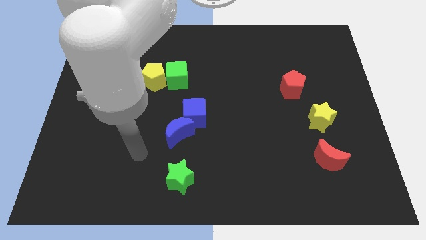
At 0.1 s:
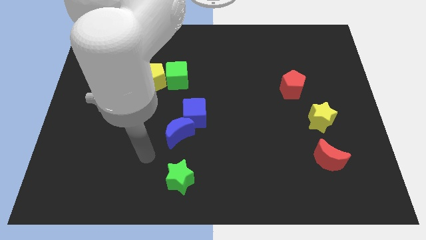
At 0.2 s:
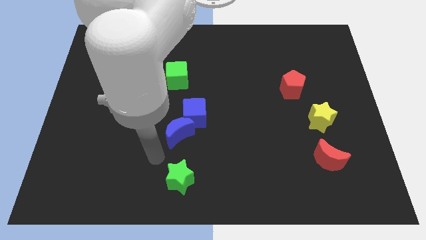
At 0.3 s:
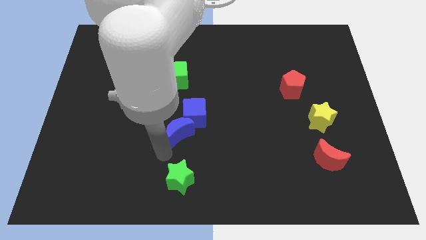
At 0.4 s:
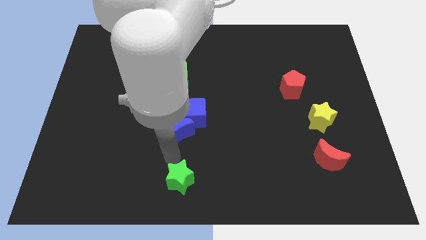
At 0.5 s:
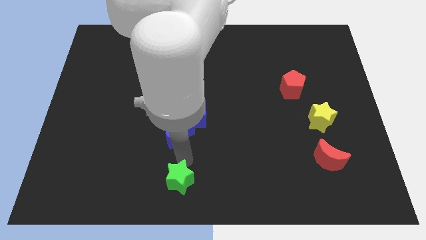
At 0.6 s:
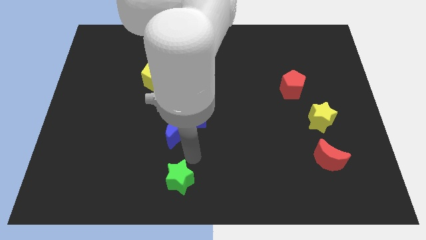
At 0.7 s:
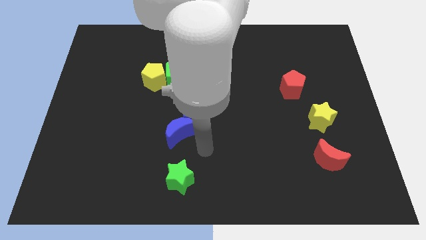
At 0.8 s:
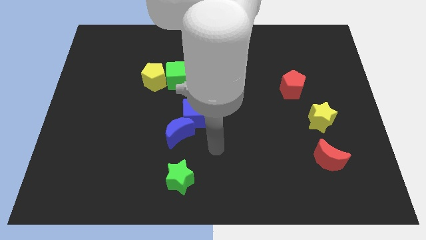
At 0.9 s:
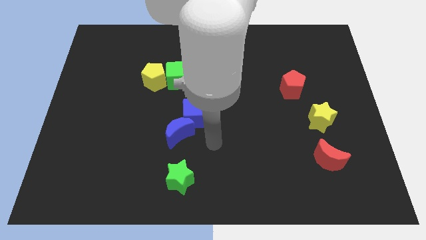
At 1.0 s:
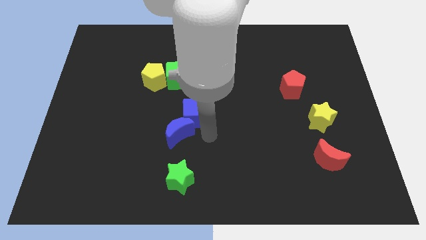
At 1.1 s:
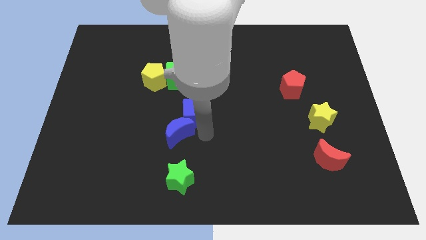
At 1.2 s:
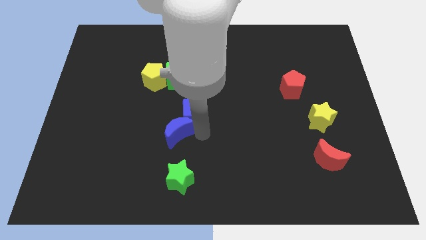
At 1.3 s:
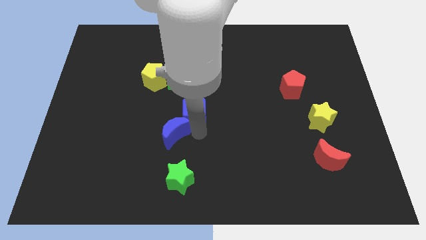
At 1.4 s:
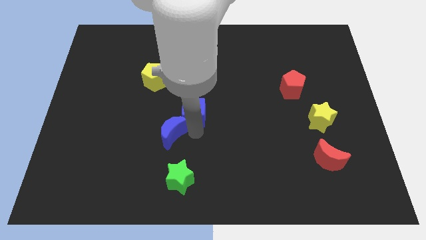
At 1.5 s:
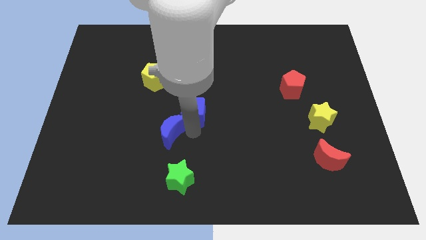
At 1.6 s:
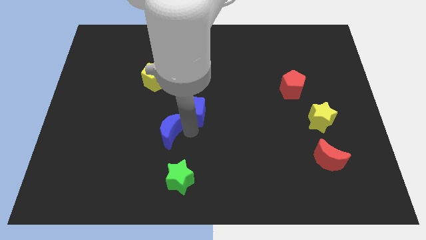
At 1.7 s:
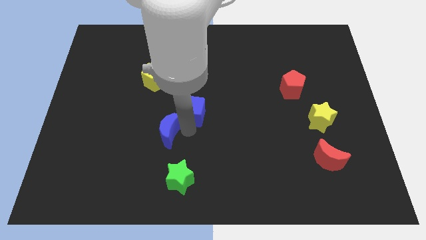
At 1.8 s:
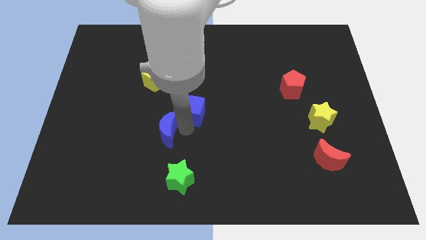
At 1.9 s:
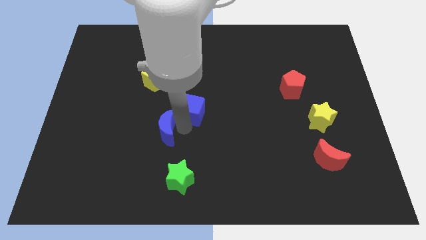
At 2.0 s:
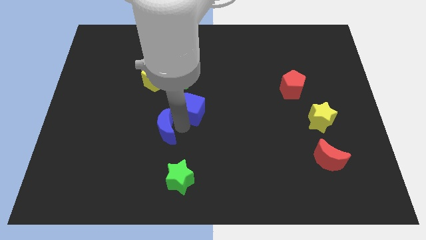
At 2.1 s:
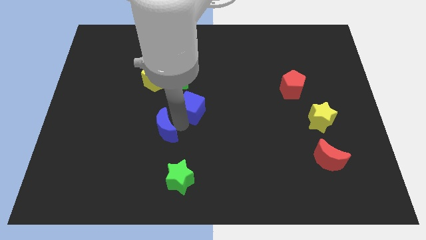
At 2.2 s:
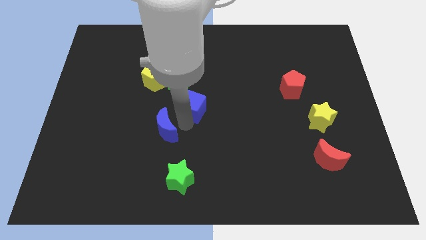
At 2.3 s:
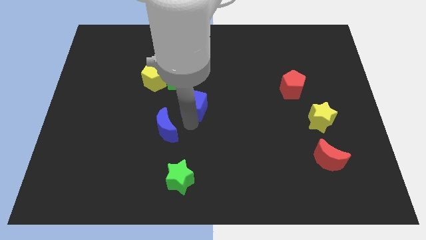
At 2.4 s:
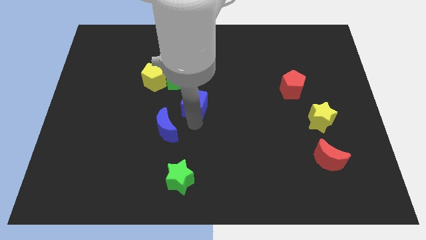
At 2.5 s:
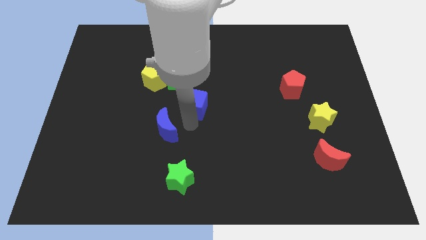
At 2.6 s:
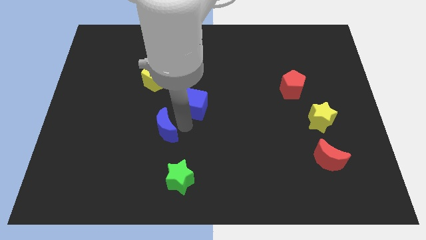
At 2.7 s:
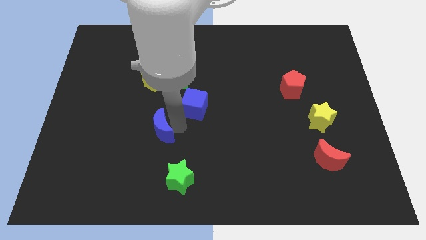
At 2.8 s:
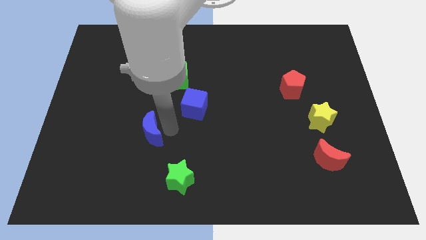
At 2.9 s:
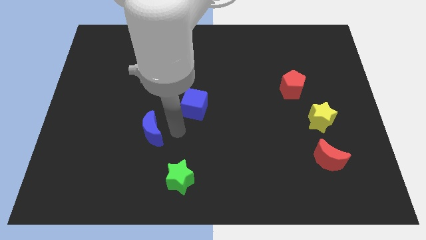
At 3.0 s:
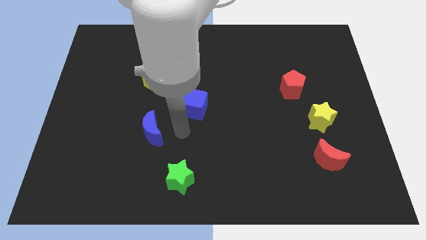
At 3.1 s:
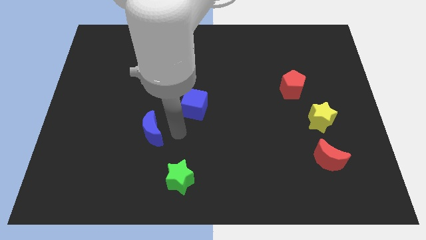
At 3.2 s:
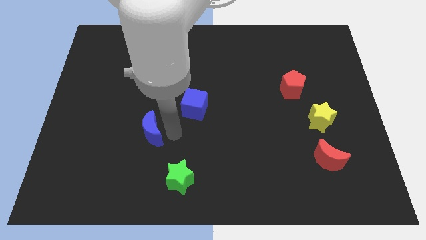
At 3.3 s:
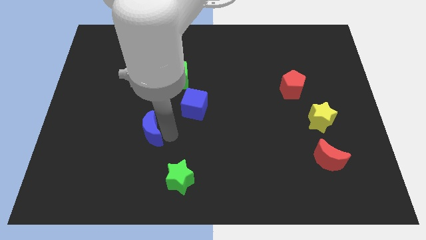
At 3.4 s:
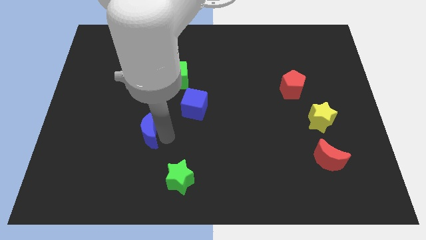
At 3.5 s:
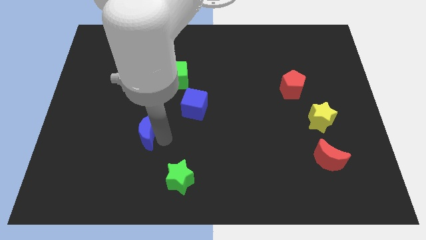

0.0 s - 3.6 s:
slide the blue moon left somewhat

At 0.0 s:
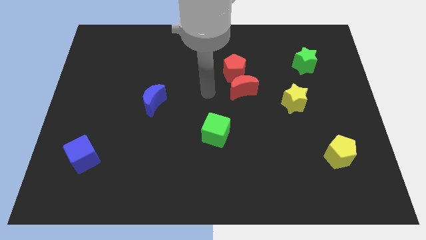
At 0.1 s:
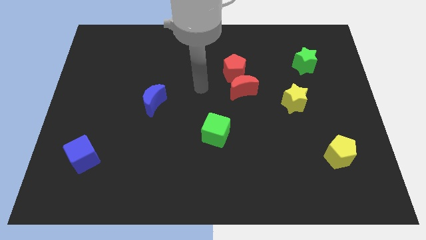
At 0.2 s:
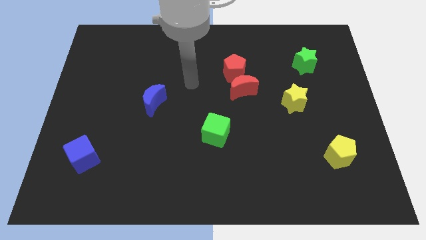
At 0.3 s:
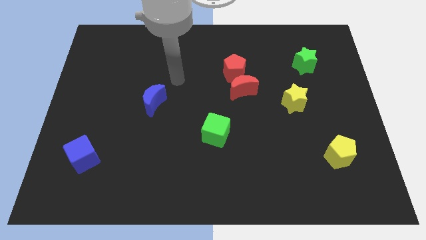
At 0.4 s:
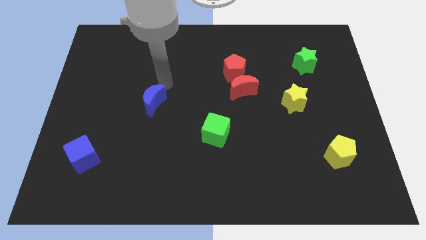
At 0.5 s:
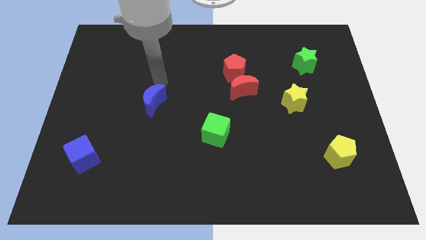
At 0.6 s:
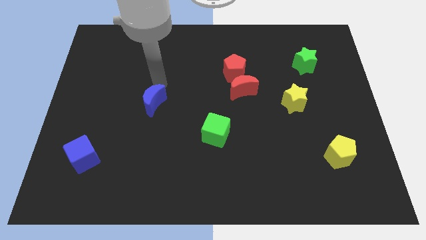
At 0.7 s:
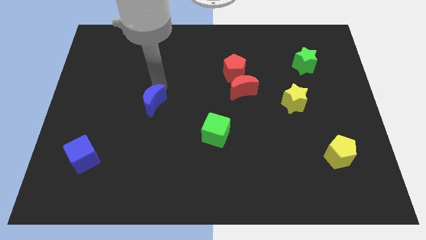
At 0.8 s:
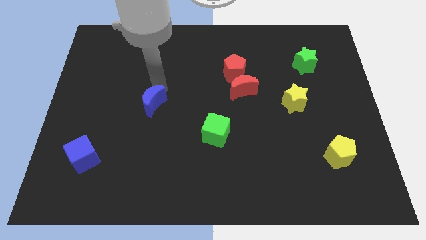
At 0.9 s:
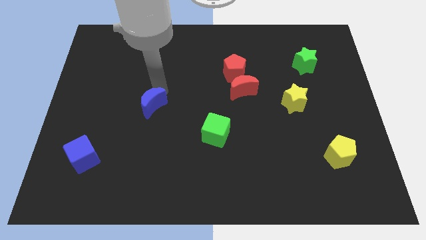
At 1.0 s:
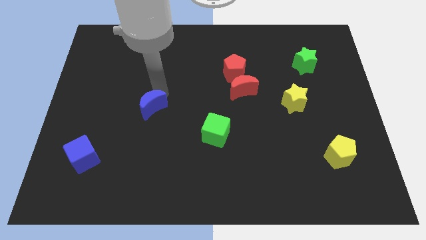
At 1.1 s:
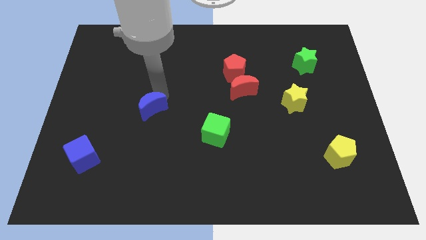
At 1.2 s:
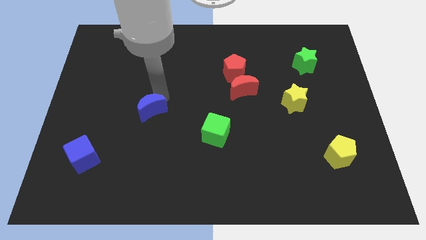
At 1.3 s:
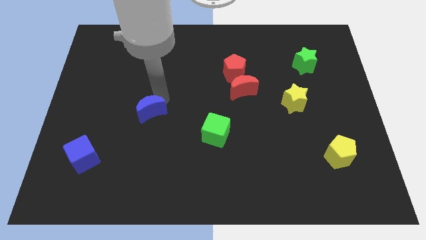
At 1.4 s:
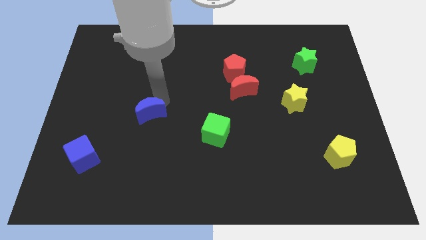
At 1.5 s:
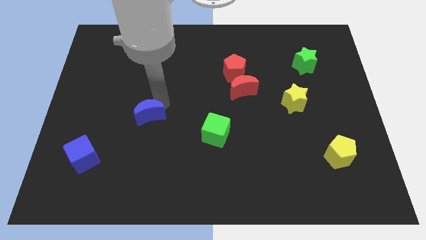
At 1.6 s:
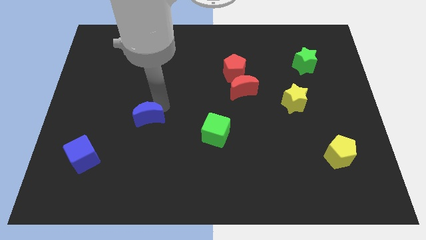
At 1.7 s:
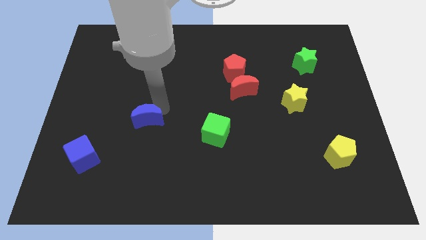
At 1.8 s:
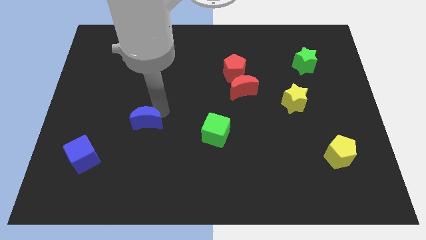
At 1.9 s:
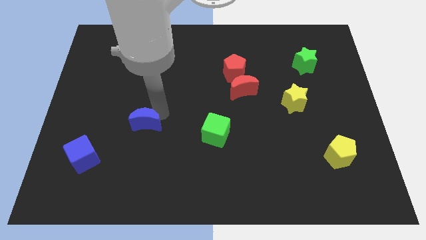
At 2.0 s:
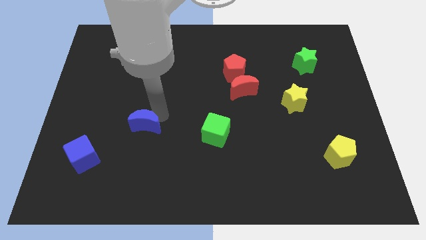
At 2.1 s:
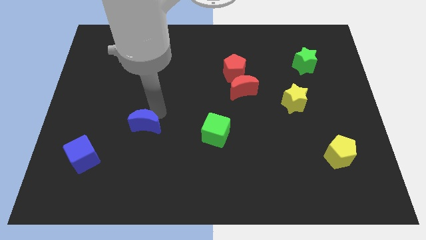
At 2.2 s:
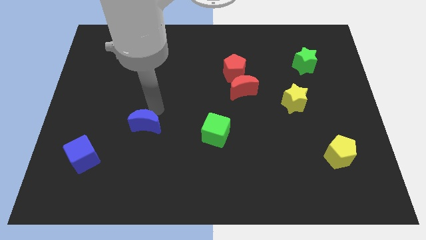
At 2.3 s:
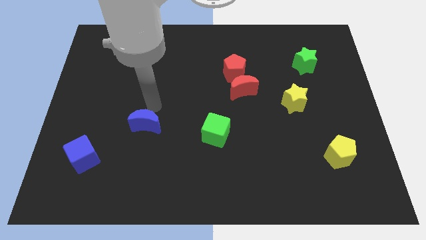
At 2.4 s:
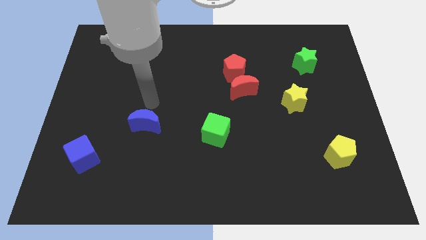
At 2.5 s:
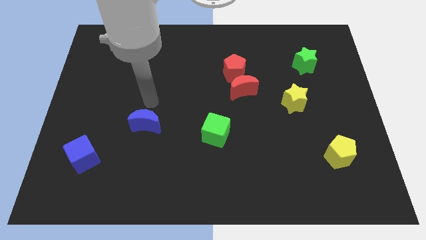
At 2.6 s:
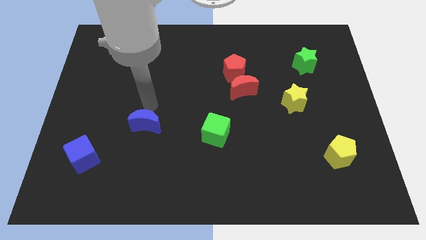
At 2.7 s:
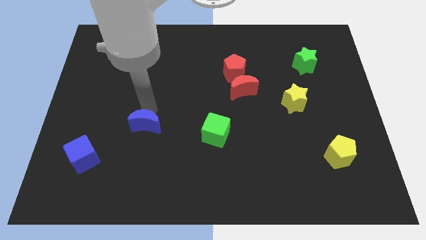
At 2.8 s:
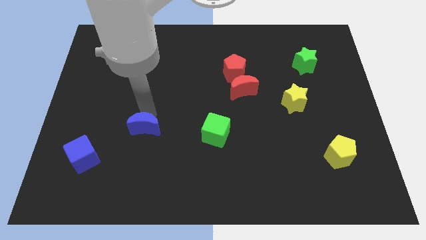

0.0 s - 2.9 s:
slide the blue moon down somewhat

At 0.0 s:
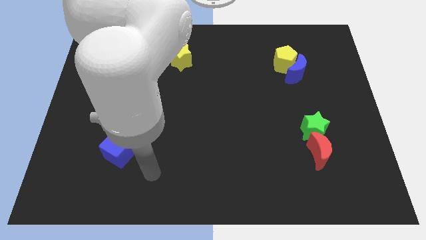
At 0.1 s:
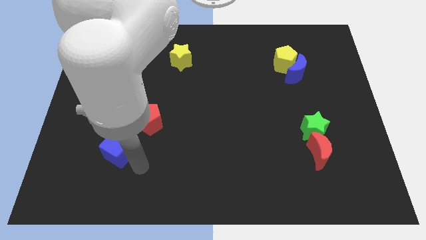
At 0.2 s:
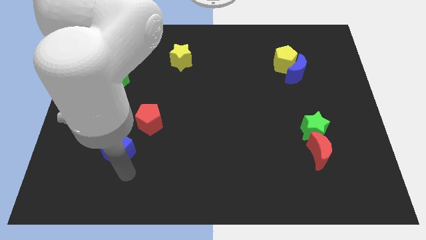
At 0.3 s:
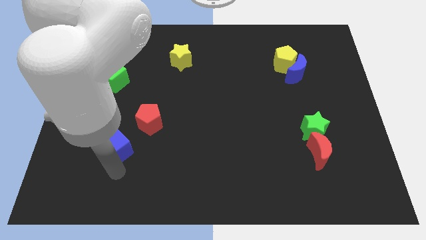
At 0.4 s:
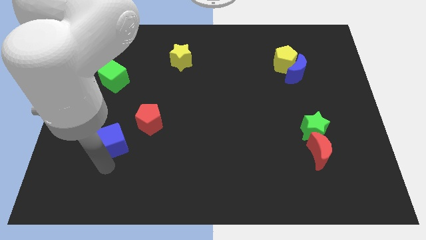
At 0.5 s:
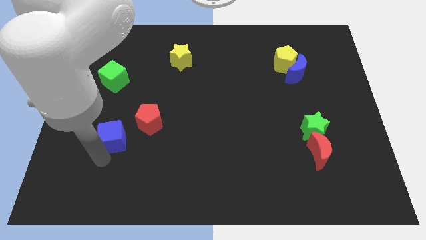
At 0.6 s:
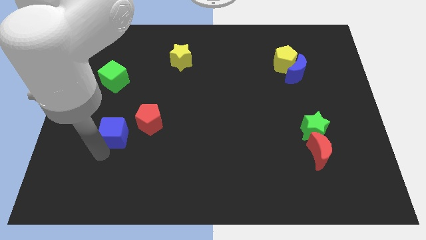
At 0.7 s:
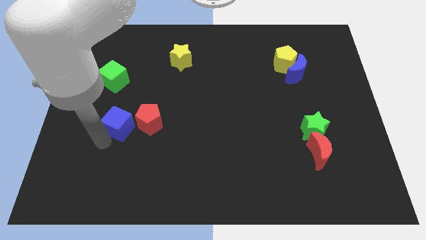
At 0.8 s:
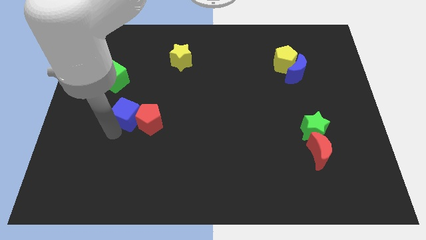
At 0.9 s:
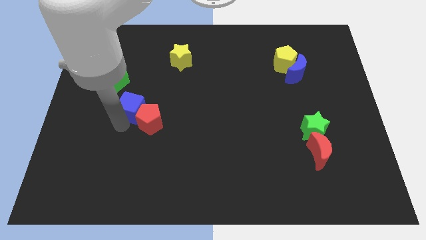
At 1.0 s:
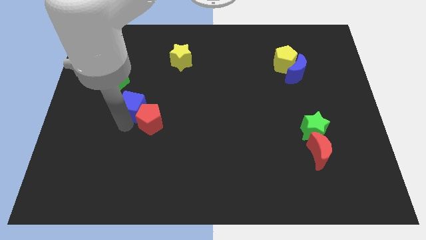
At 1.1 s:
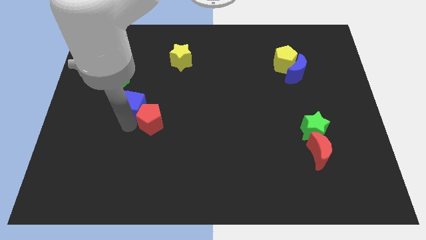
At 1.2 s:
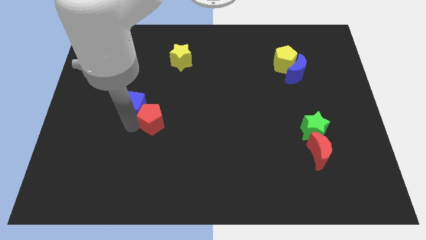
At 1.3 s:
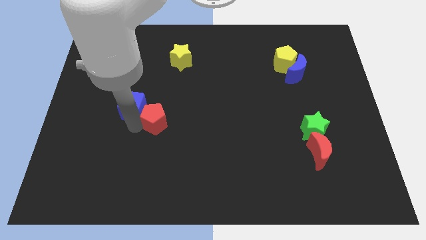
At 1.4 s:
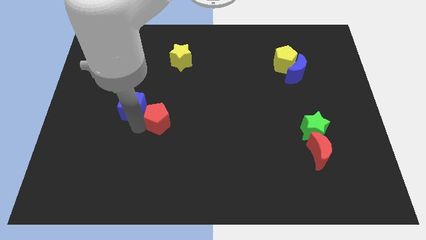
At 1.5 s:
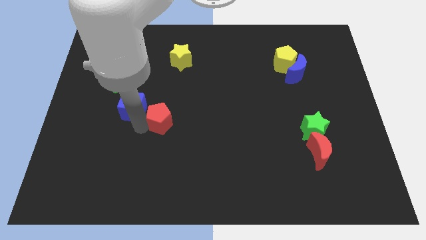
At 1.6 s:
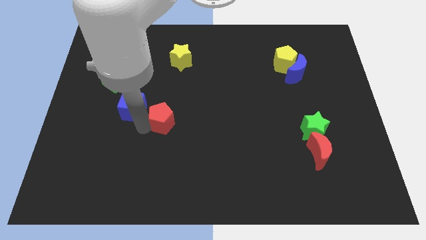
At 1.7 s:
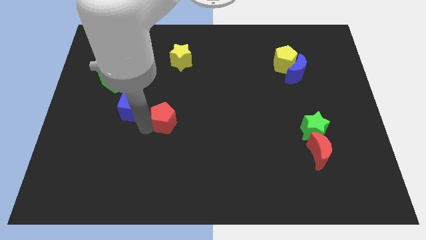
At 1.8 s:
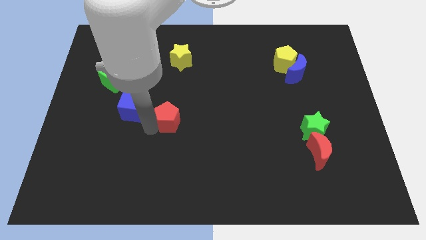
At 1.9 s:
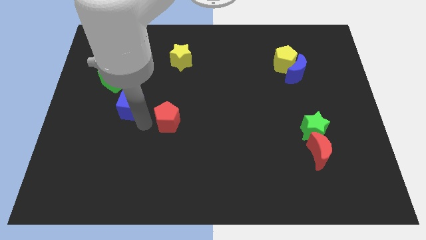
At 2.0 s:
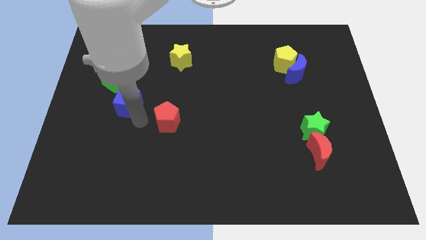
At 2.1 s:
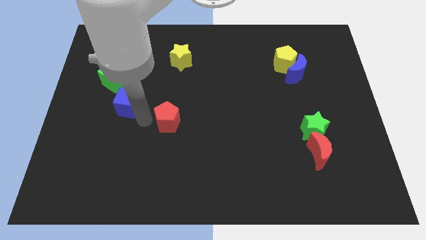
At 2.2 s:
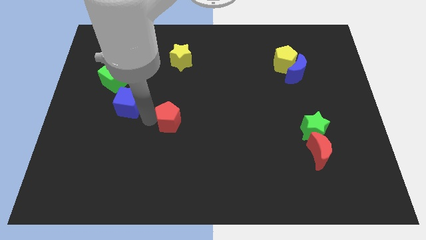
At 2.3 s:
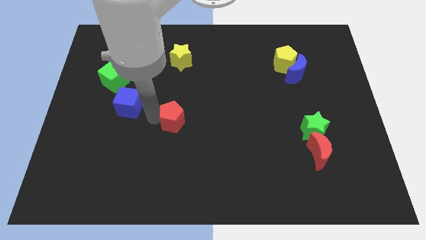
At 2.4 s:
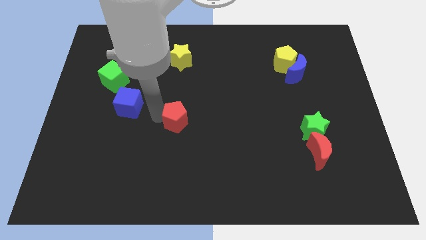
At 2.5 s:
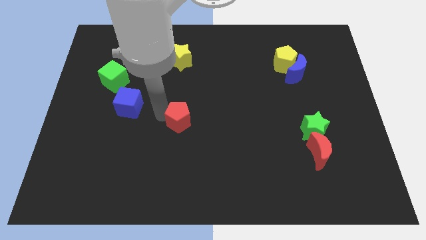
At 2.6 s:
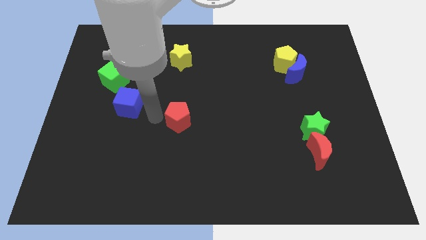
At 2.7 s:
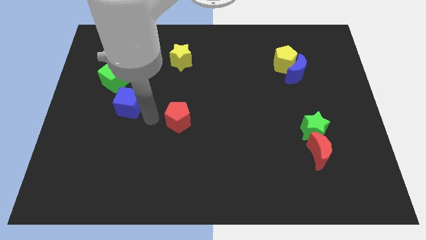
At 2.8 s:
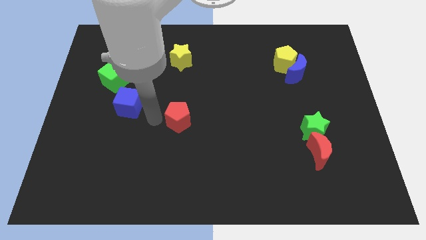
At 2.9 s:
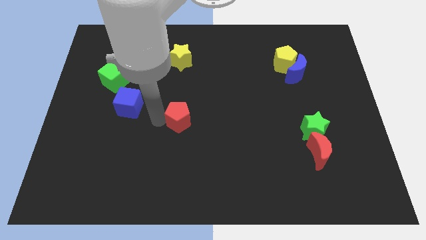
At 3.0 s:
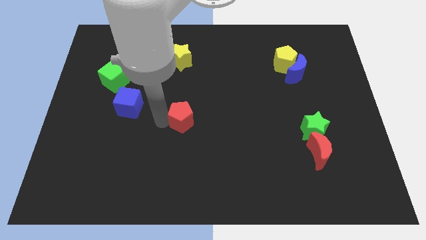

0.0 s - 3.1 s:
slightly move the red pentagon right
